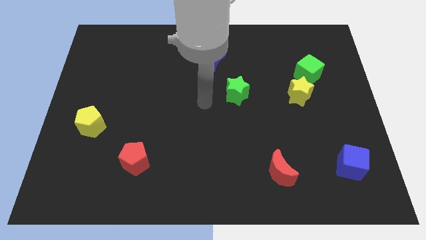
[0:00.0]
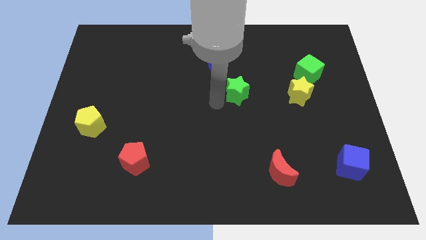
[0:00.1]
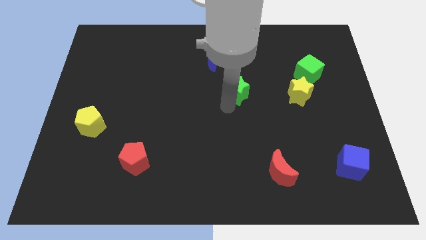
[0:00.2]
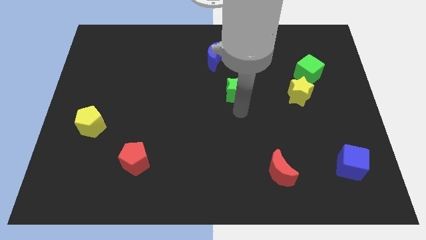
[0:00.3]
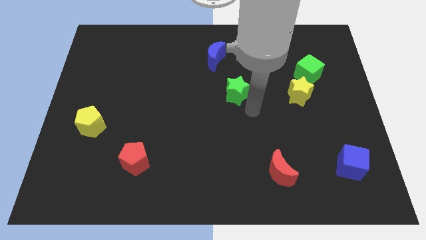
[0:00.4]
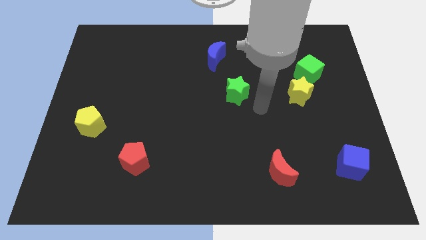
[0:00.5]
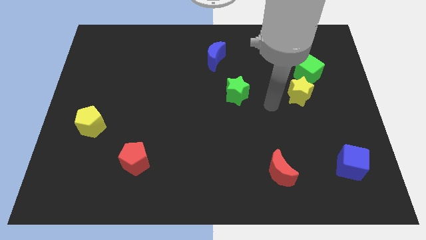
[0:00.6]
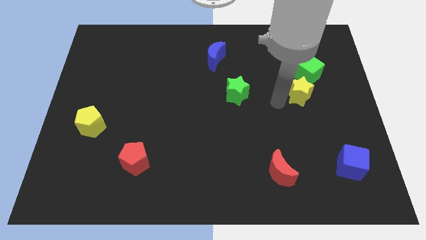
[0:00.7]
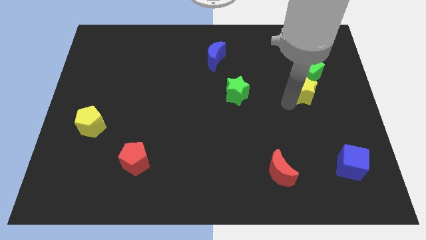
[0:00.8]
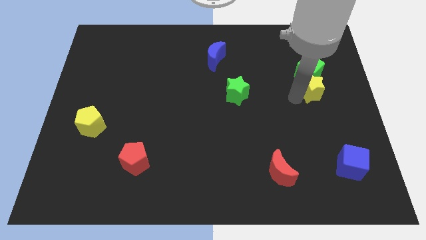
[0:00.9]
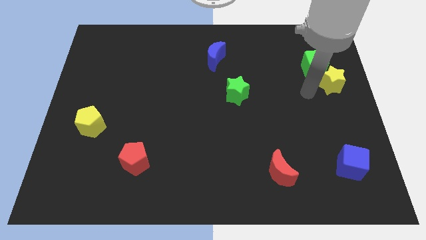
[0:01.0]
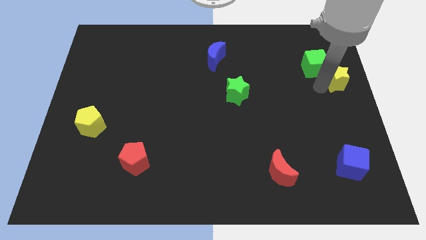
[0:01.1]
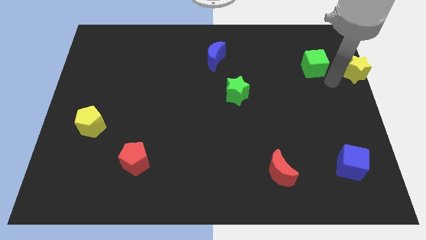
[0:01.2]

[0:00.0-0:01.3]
move the green cube away from the yellow star

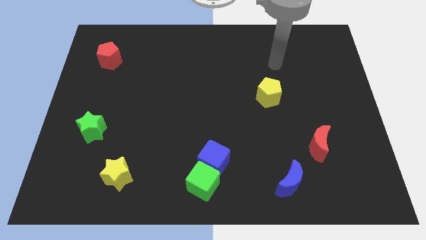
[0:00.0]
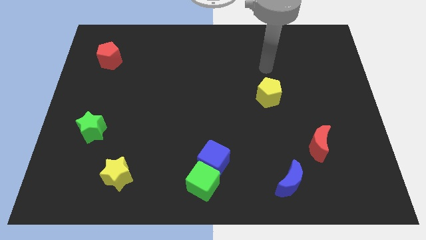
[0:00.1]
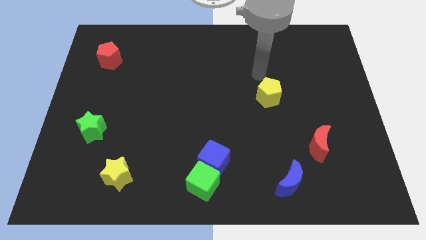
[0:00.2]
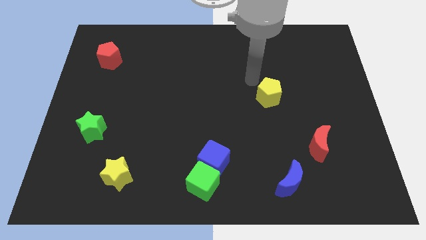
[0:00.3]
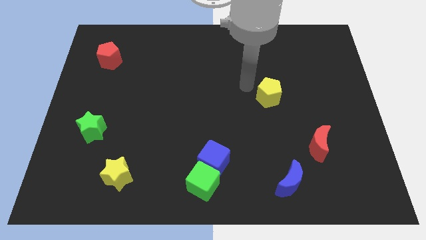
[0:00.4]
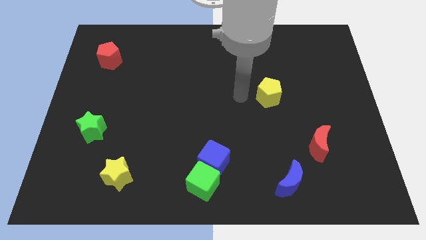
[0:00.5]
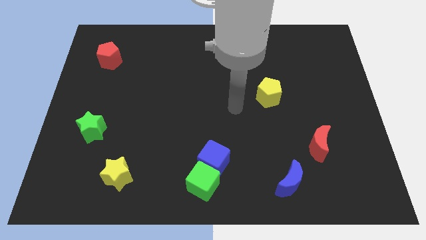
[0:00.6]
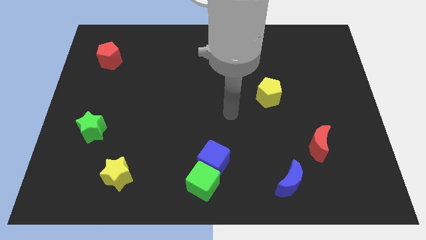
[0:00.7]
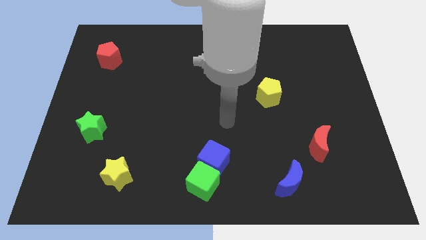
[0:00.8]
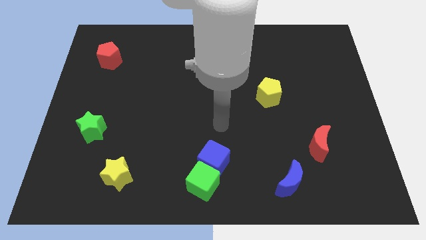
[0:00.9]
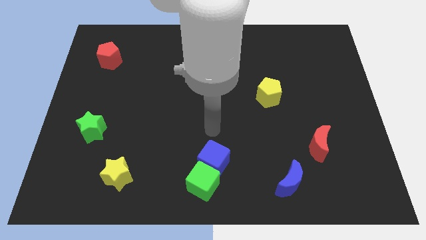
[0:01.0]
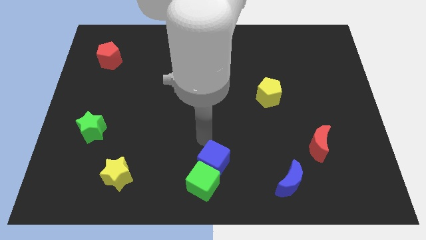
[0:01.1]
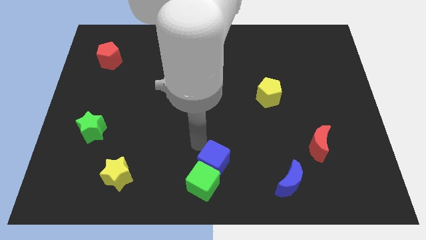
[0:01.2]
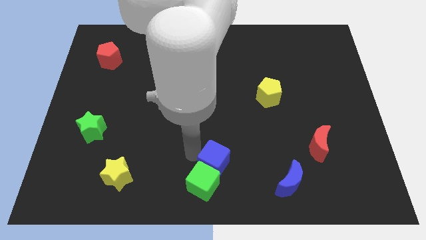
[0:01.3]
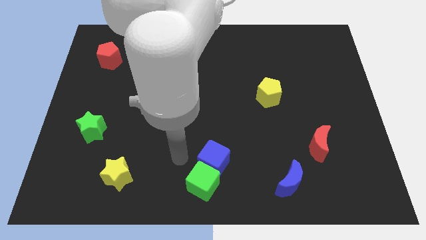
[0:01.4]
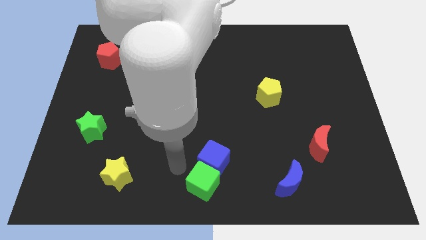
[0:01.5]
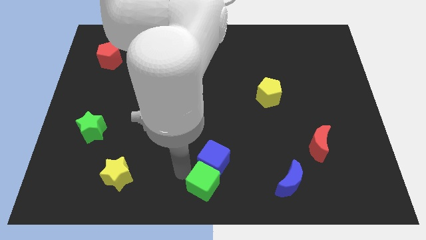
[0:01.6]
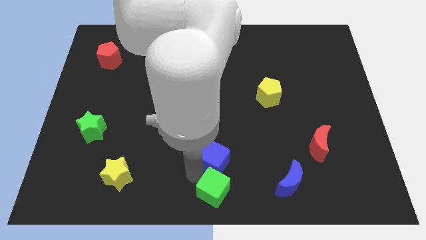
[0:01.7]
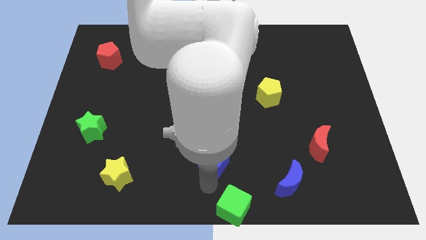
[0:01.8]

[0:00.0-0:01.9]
move the blue cube away from the green cube

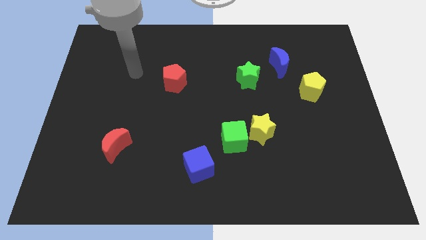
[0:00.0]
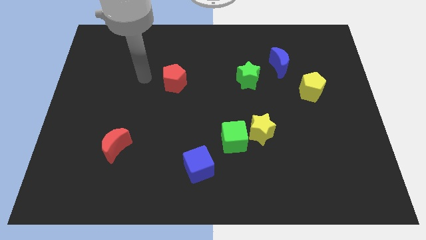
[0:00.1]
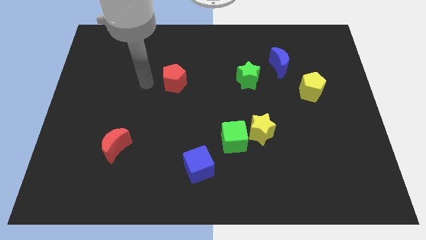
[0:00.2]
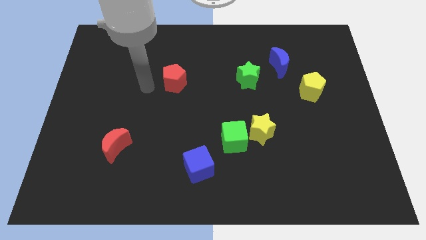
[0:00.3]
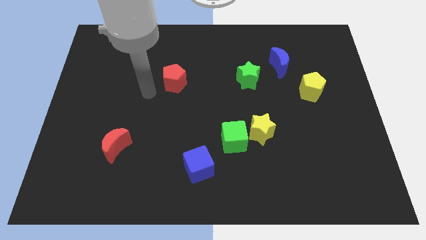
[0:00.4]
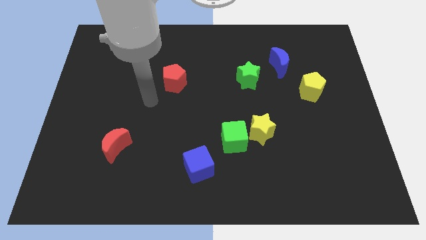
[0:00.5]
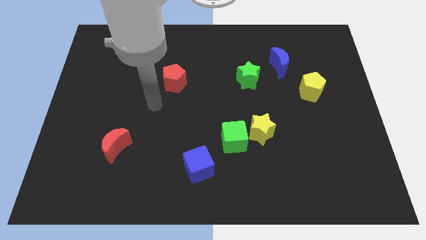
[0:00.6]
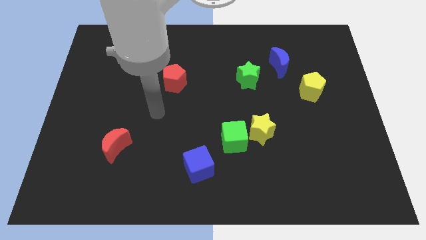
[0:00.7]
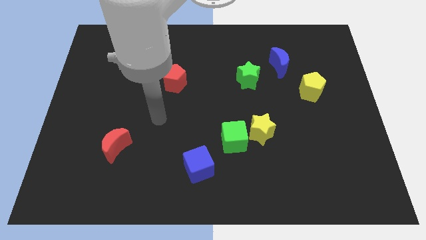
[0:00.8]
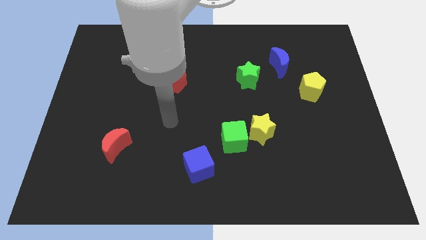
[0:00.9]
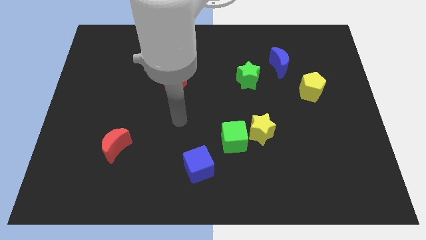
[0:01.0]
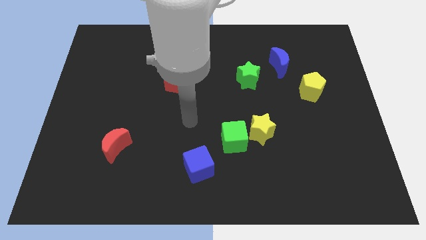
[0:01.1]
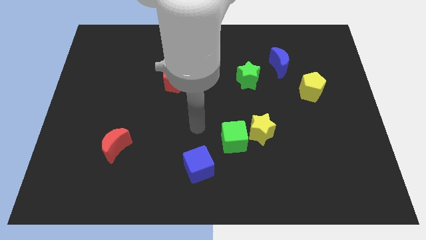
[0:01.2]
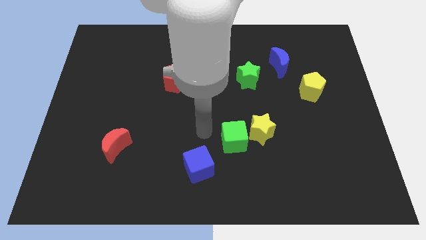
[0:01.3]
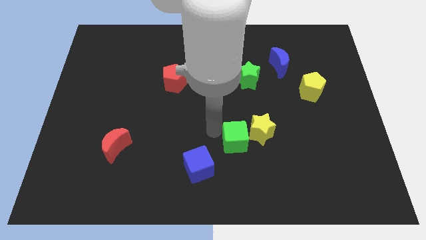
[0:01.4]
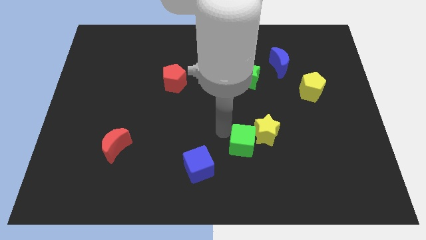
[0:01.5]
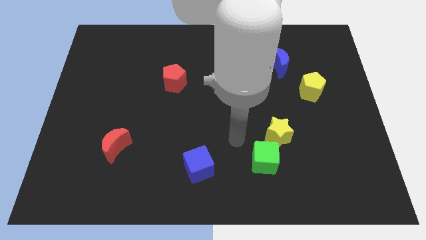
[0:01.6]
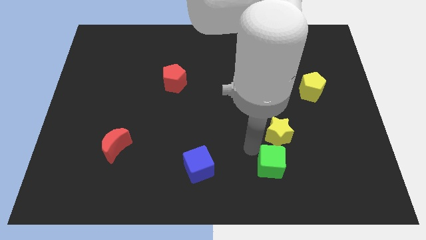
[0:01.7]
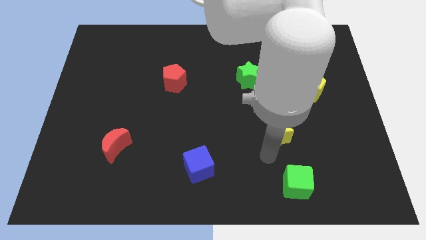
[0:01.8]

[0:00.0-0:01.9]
separate the yellow star from the green cube

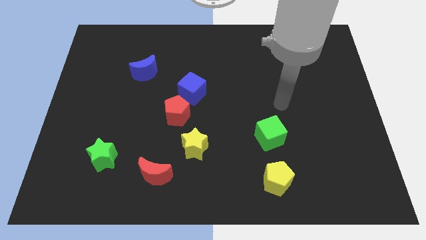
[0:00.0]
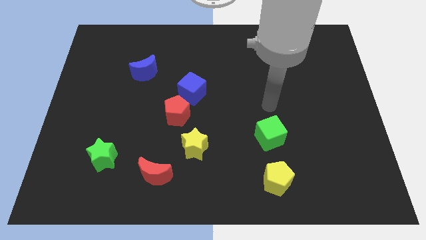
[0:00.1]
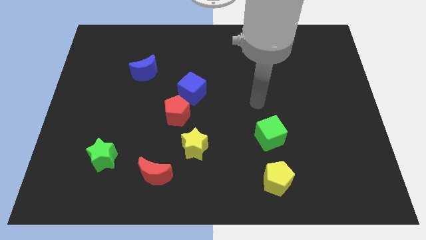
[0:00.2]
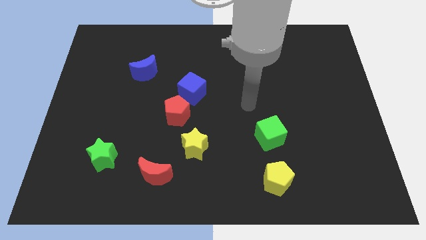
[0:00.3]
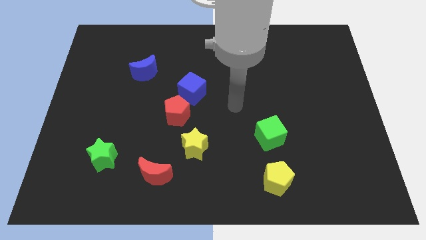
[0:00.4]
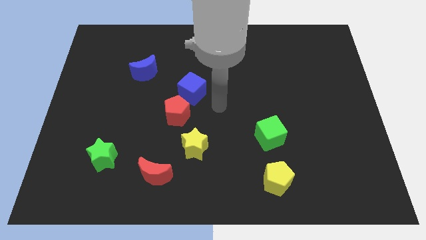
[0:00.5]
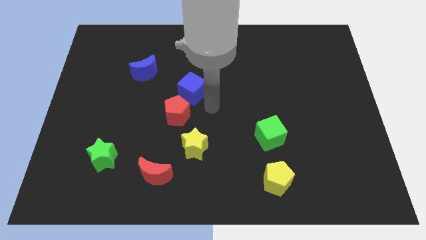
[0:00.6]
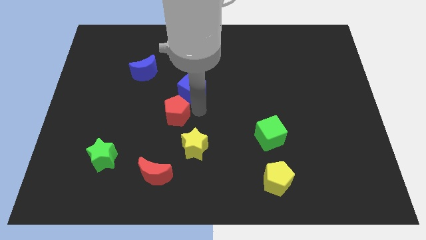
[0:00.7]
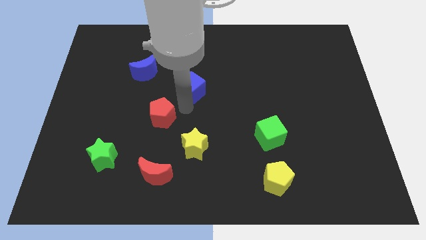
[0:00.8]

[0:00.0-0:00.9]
separate the blue cube from the red pentagon

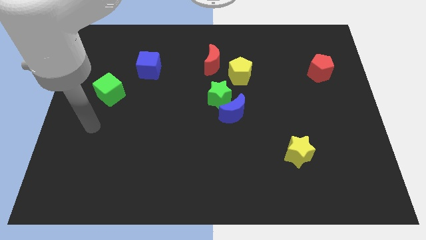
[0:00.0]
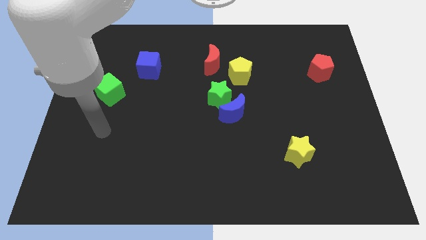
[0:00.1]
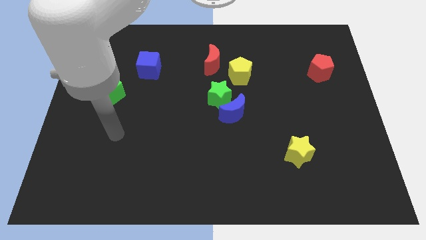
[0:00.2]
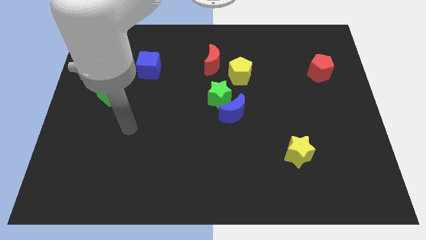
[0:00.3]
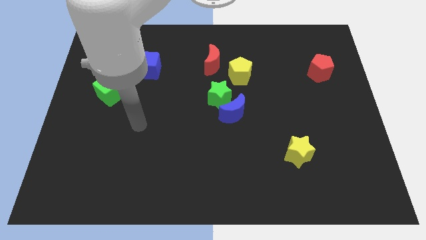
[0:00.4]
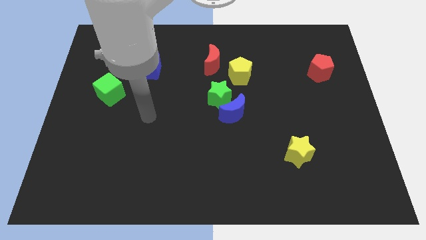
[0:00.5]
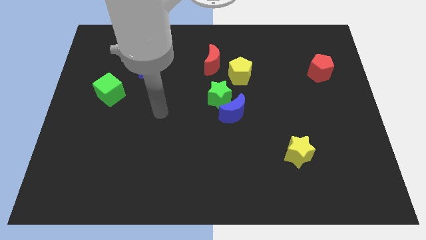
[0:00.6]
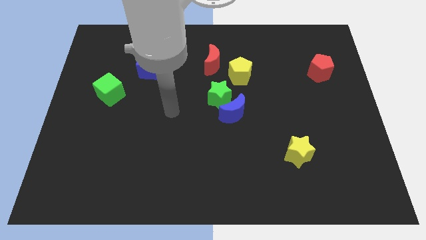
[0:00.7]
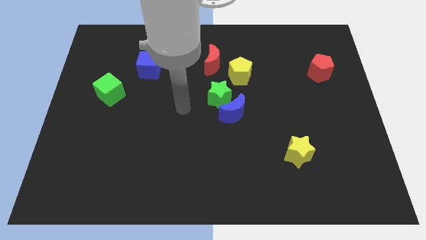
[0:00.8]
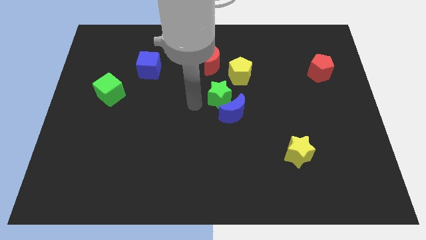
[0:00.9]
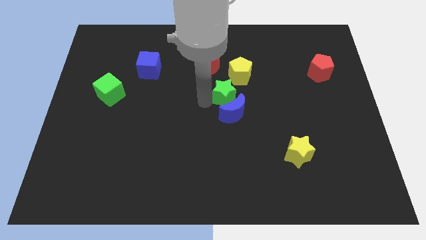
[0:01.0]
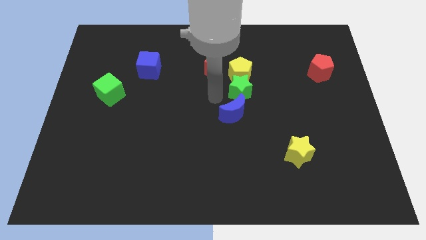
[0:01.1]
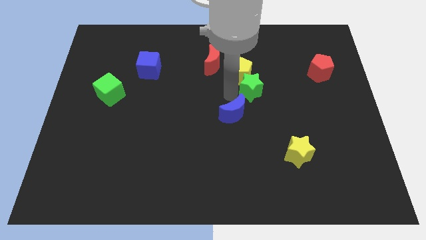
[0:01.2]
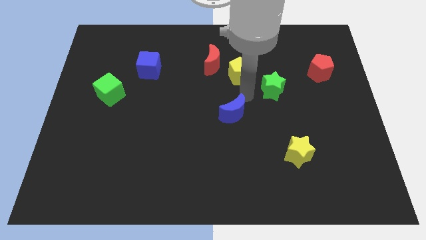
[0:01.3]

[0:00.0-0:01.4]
pull the blue moon apart from the green star

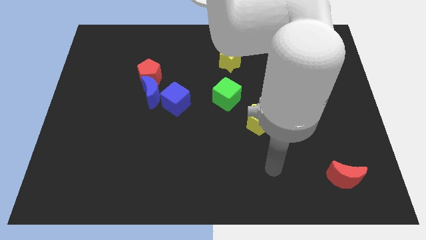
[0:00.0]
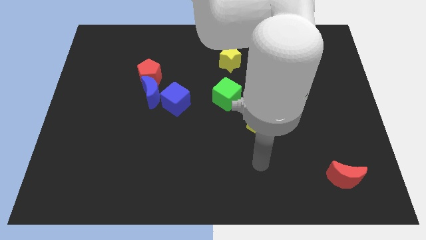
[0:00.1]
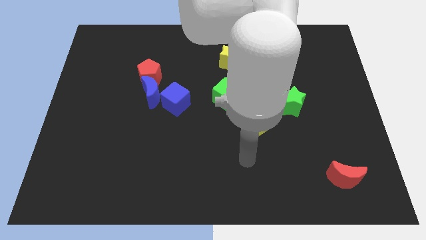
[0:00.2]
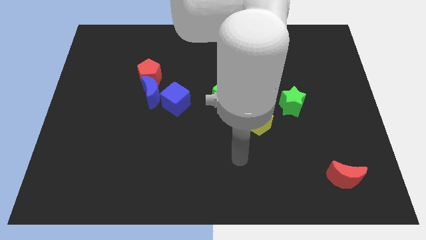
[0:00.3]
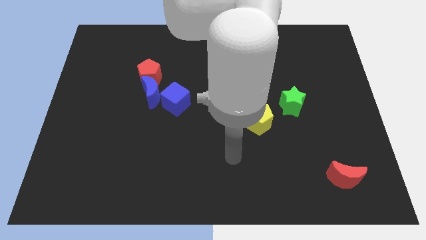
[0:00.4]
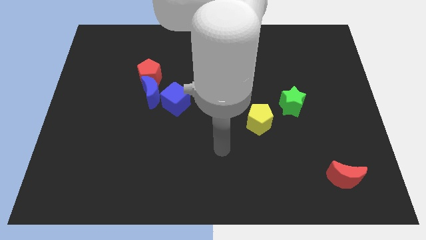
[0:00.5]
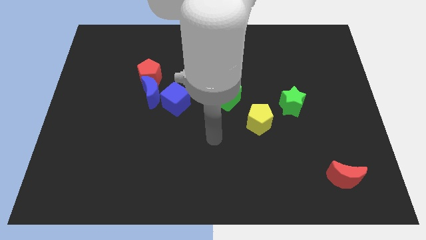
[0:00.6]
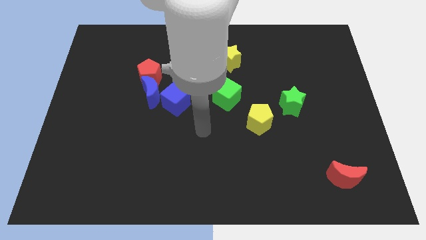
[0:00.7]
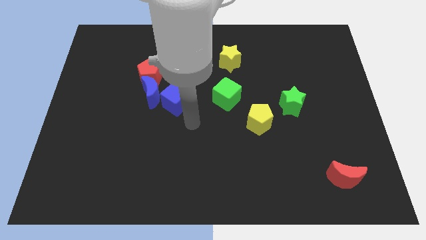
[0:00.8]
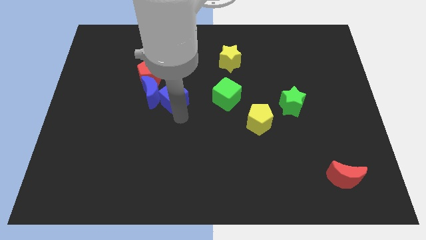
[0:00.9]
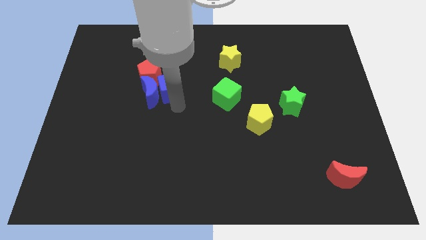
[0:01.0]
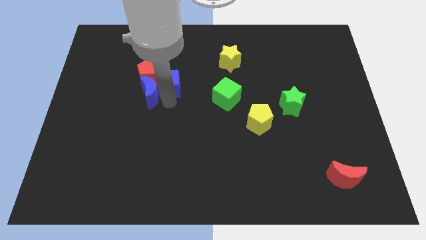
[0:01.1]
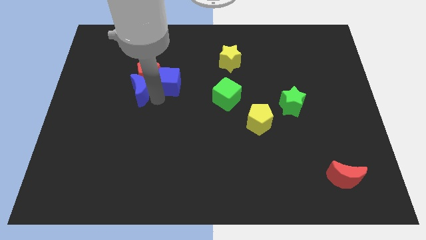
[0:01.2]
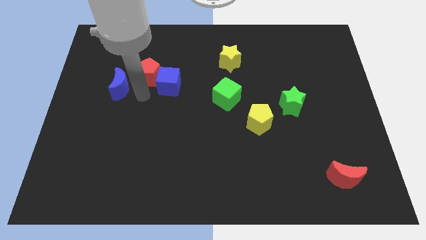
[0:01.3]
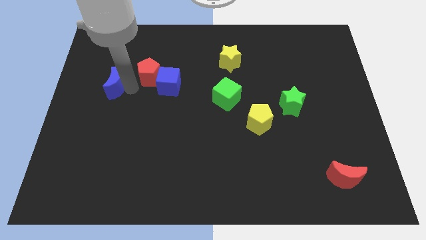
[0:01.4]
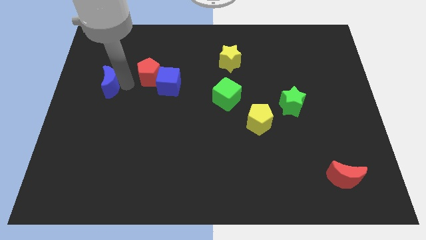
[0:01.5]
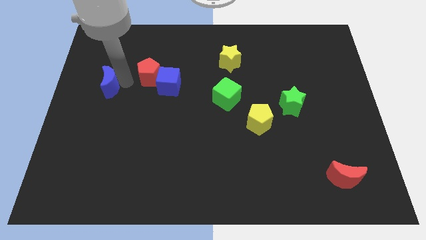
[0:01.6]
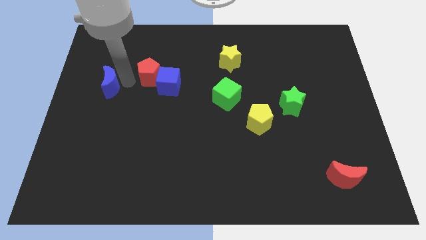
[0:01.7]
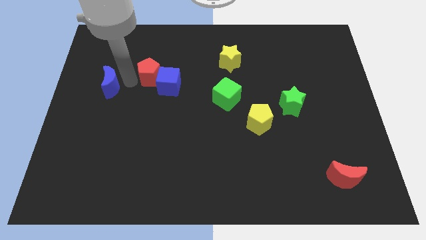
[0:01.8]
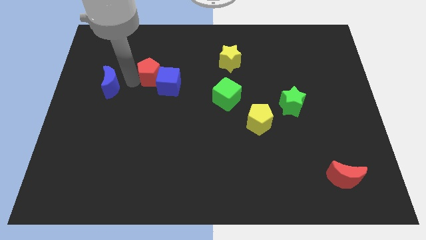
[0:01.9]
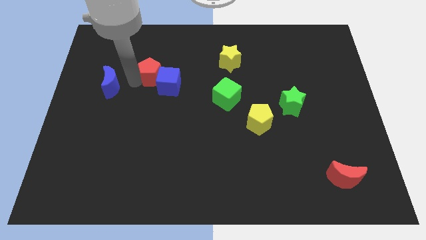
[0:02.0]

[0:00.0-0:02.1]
move the red pentagon away from the blue moon
